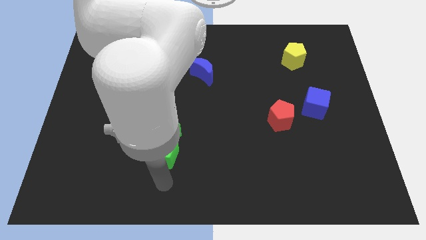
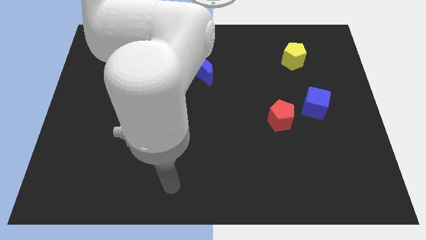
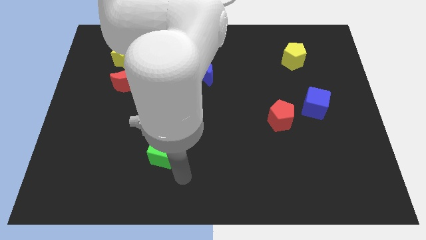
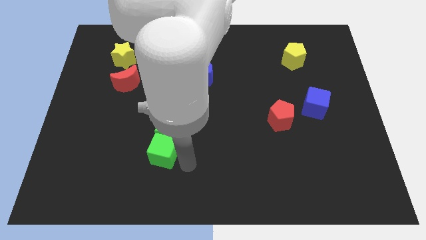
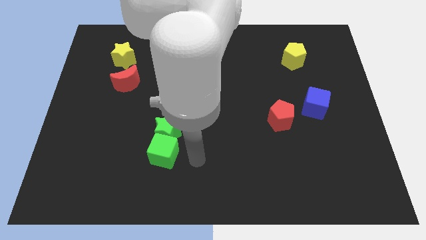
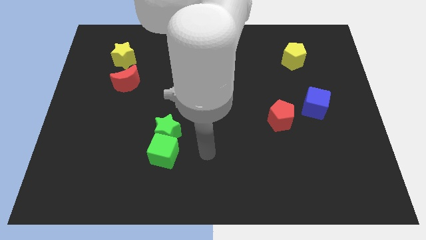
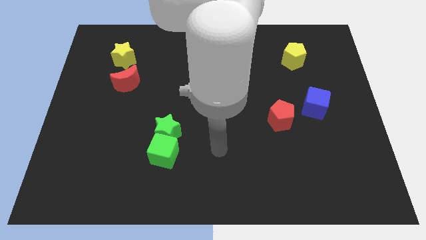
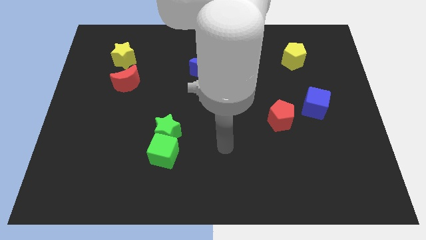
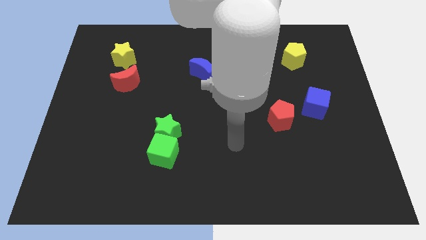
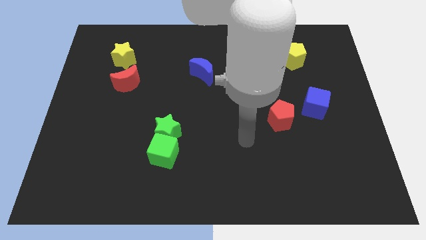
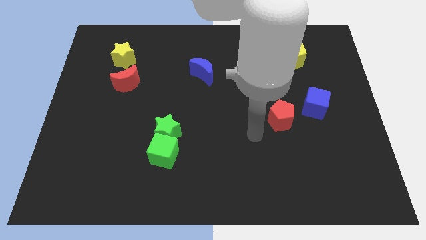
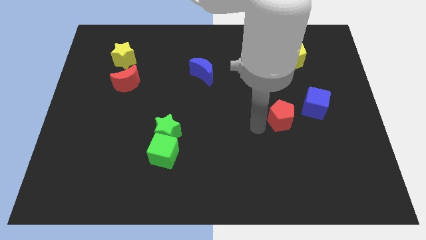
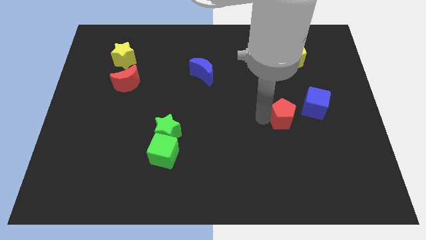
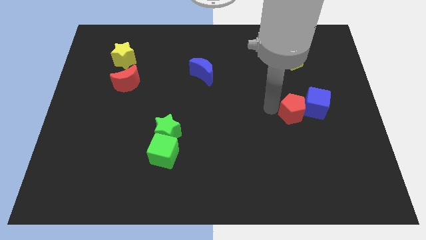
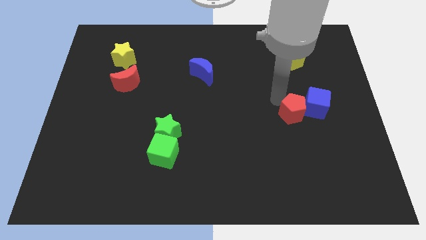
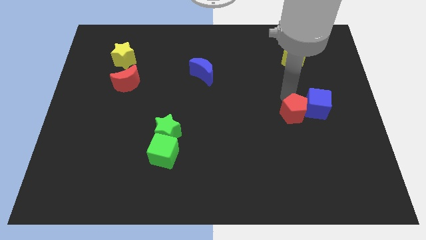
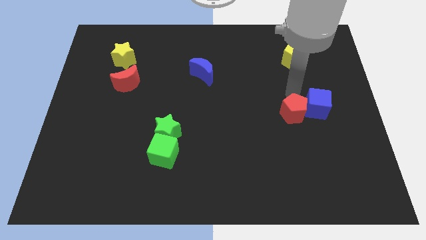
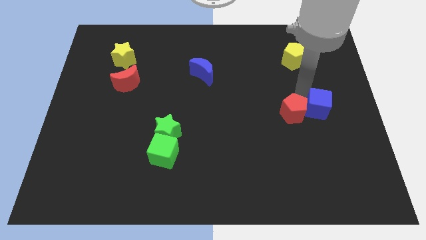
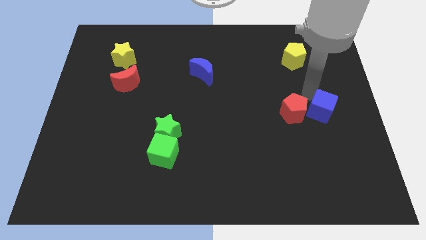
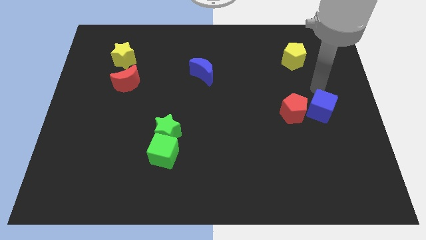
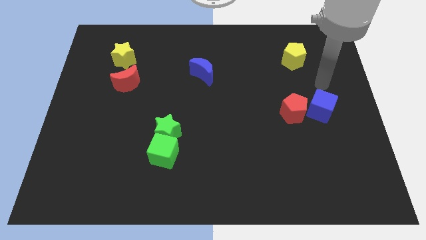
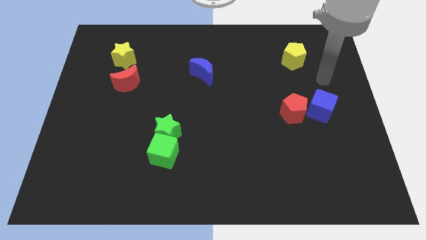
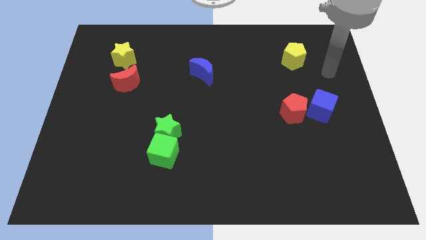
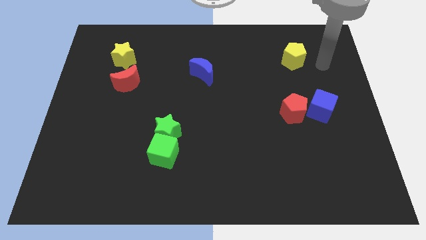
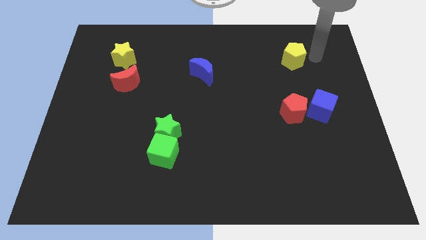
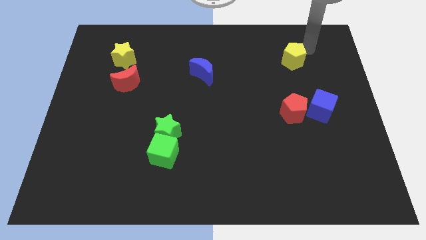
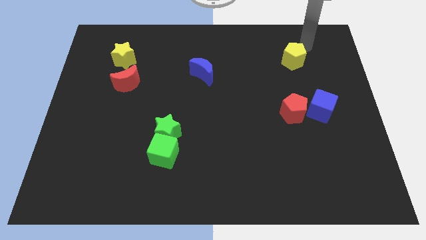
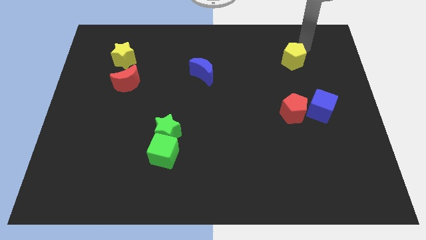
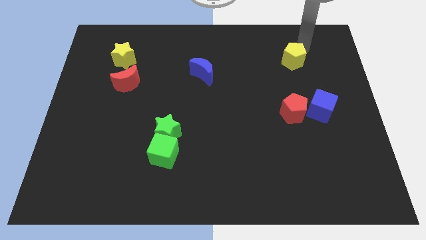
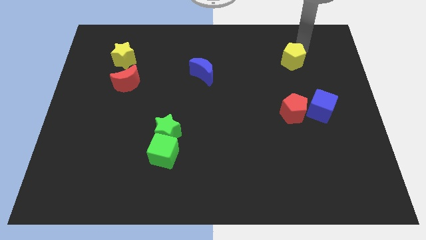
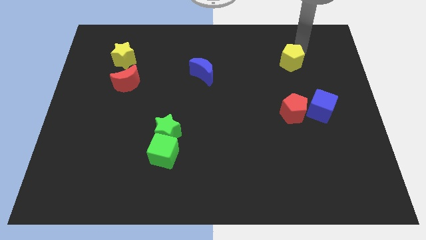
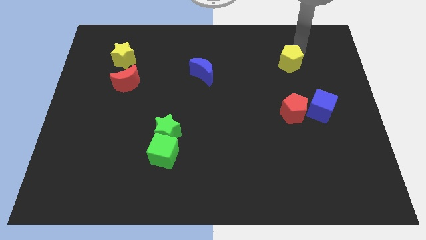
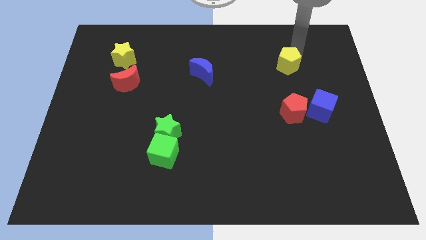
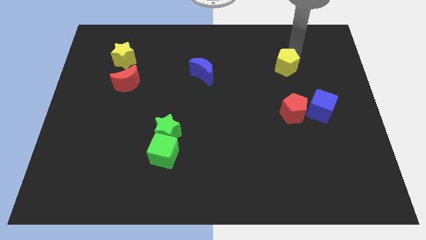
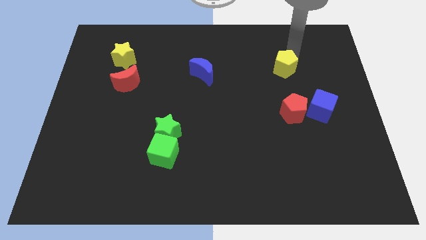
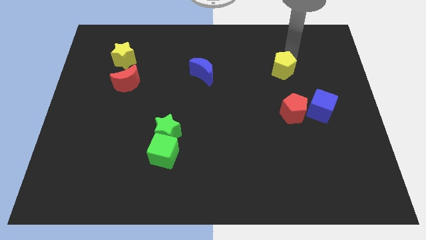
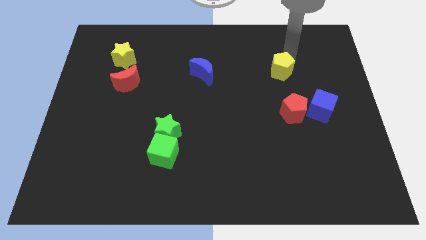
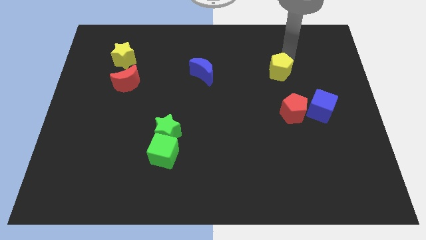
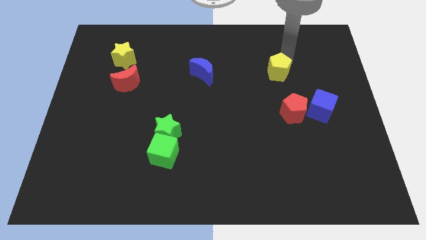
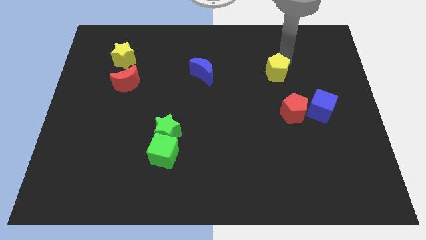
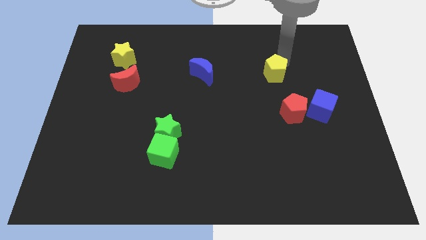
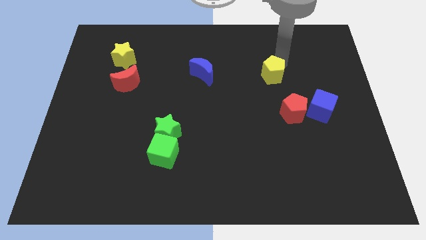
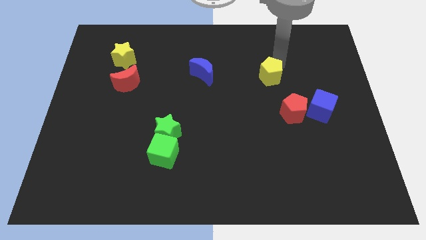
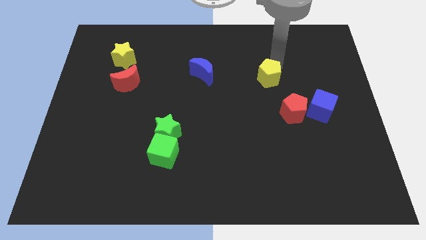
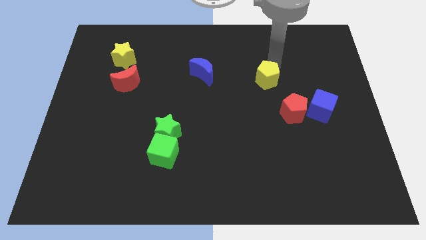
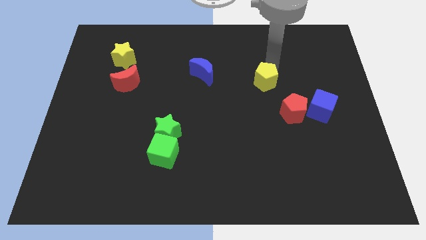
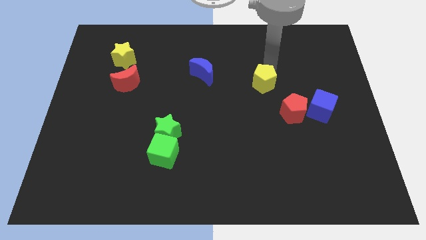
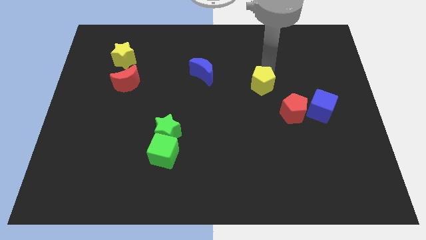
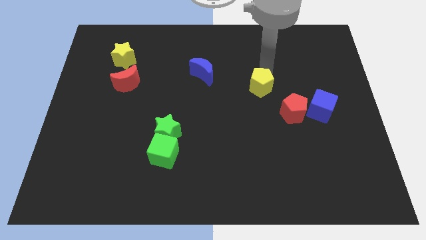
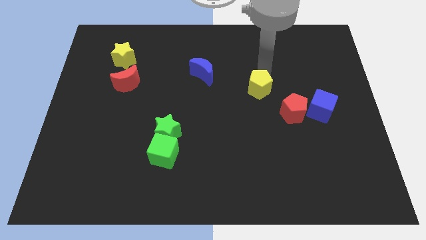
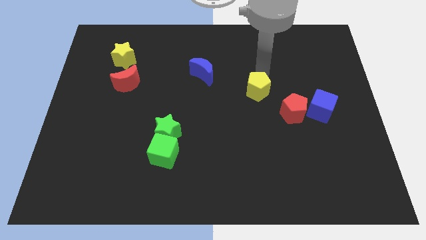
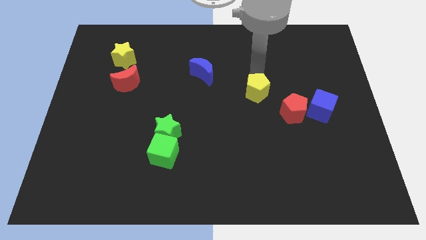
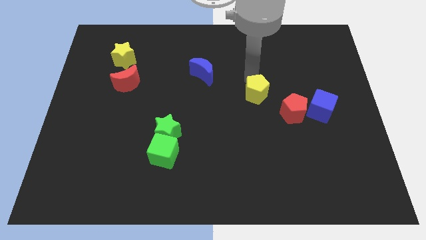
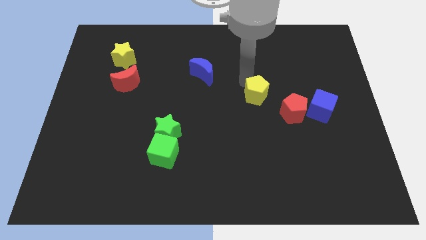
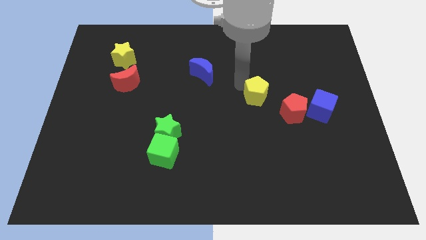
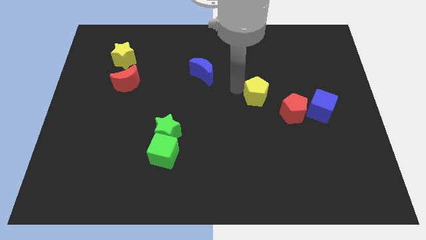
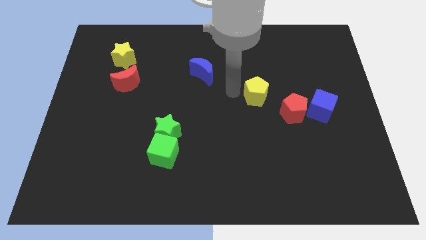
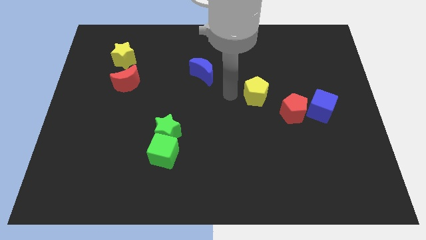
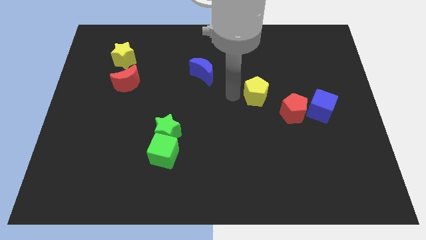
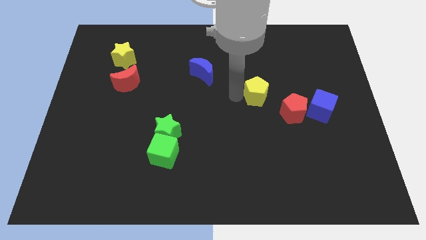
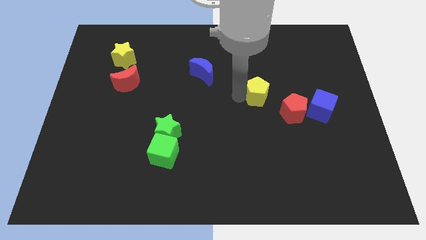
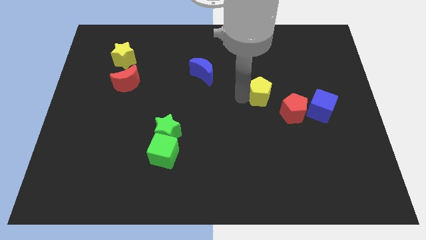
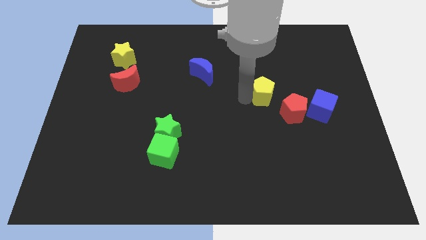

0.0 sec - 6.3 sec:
put the yellow pentagon to the left side of the blue cube

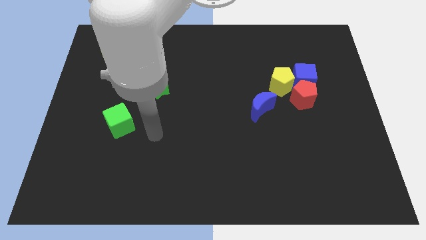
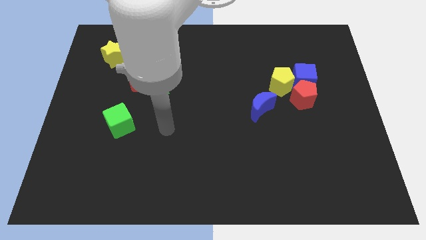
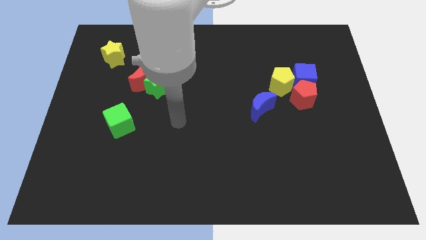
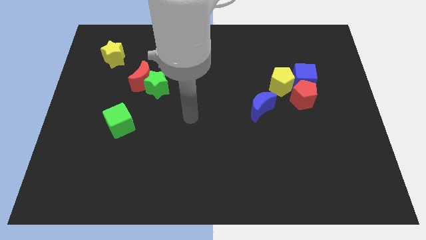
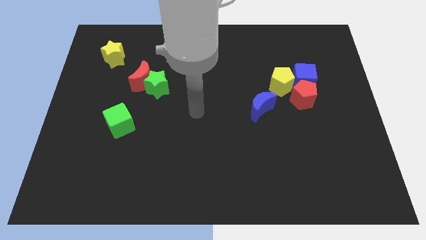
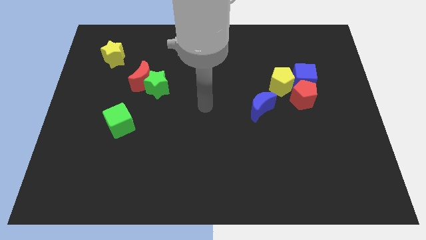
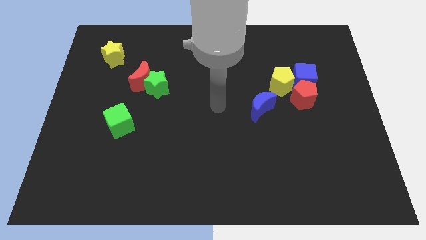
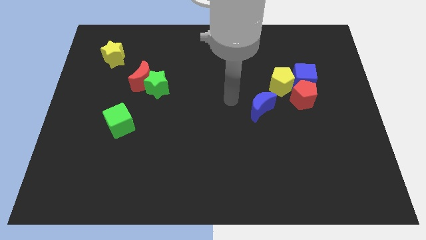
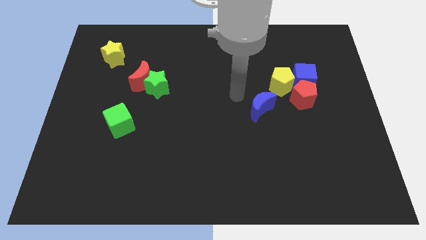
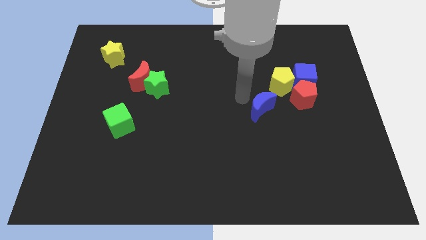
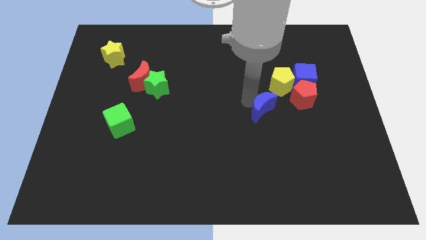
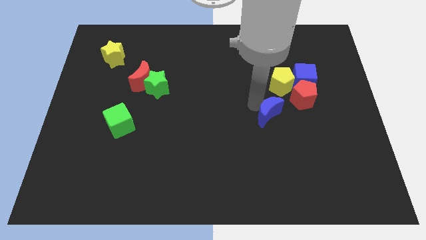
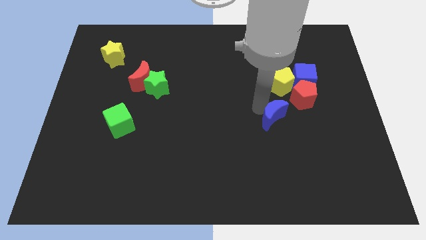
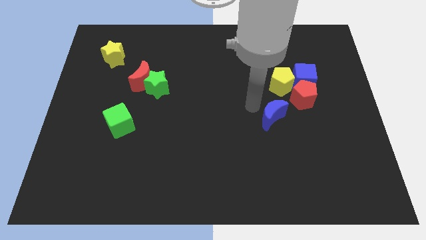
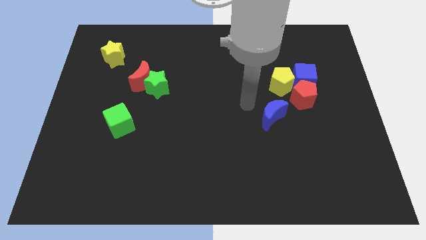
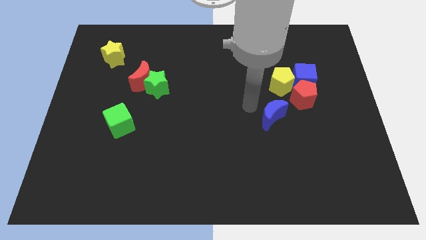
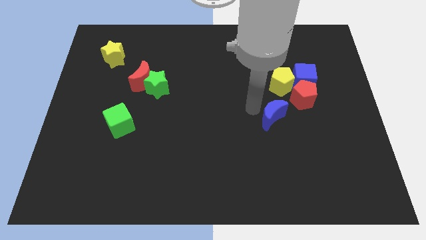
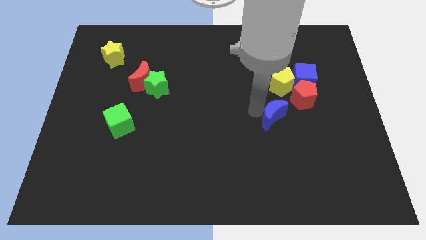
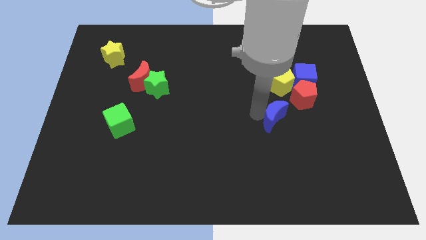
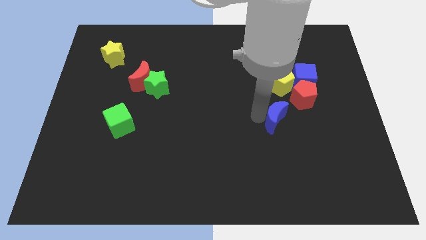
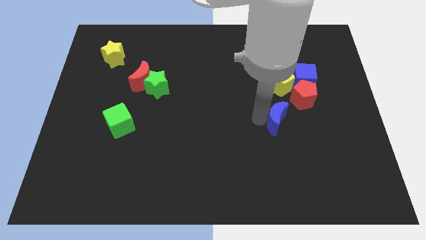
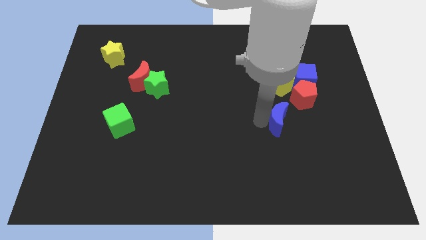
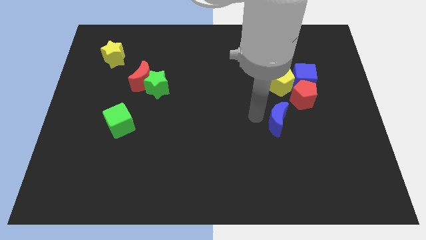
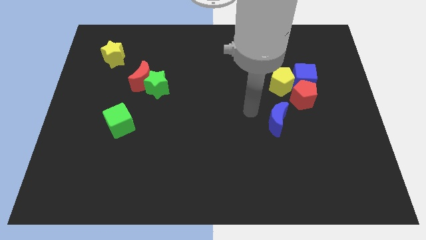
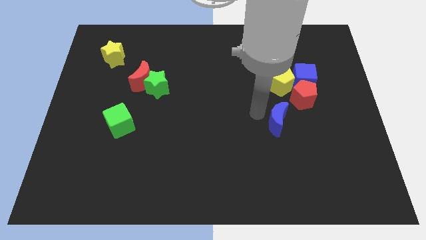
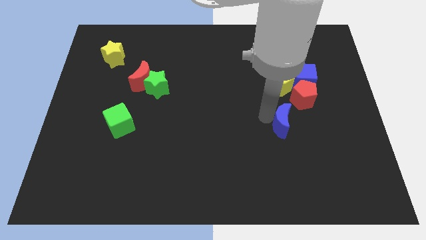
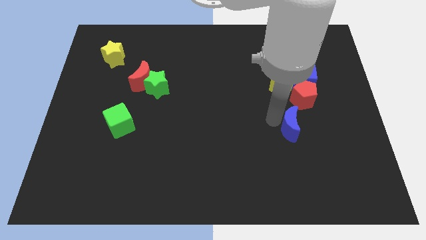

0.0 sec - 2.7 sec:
slide the blue moon to the bottom of the red pentagon
